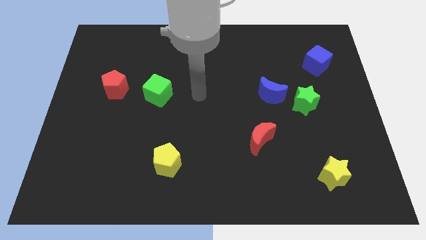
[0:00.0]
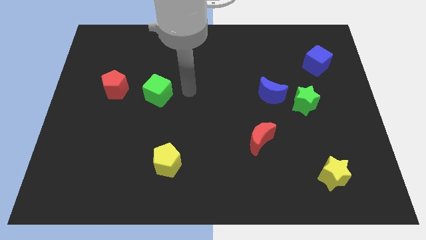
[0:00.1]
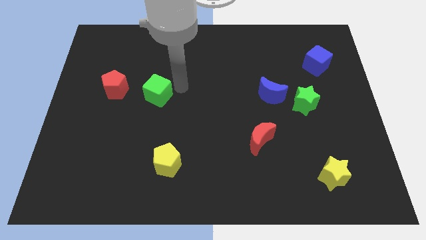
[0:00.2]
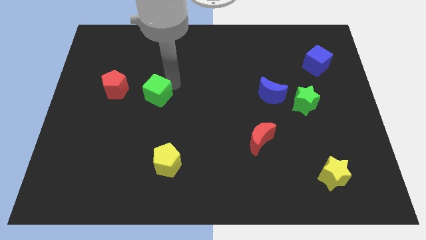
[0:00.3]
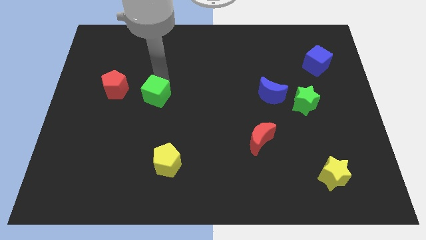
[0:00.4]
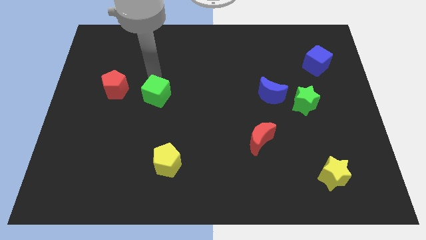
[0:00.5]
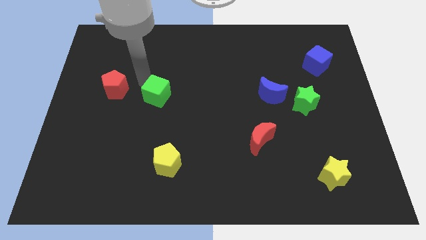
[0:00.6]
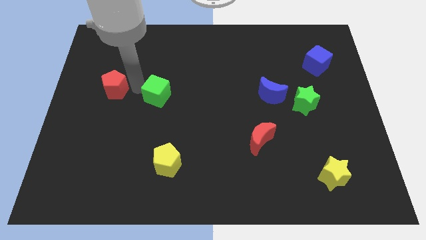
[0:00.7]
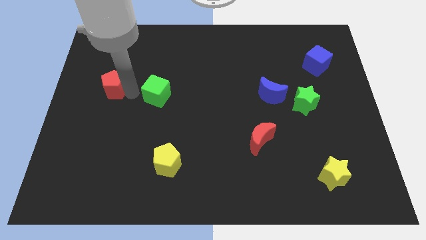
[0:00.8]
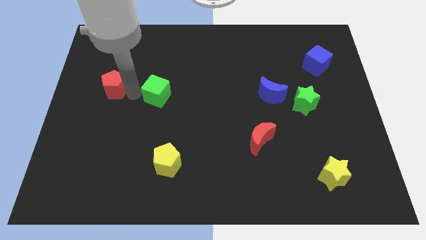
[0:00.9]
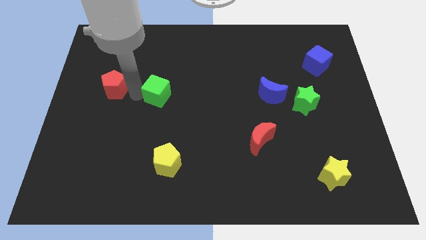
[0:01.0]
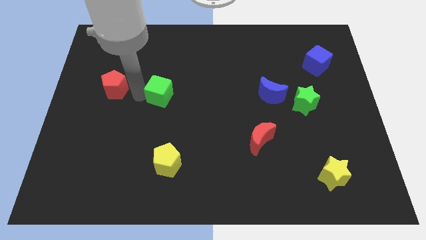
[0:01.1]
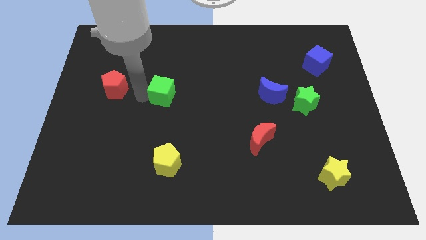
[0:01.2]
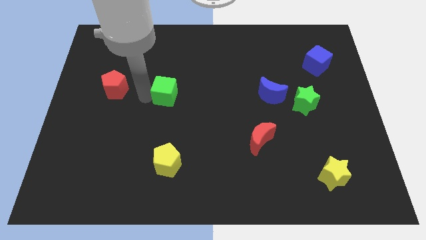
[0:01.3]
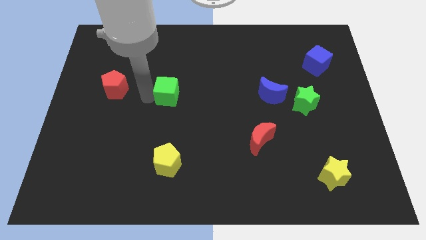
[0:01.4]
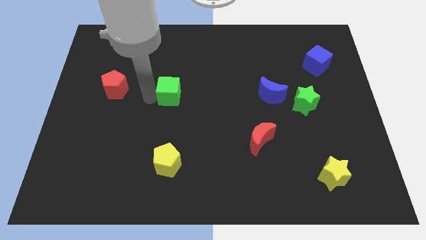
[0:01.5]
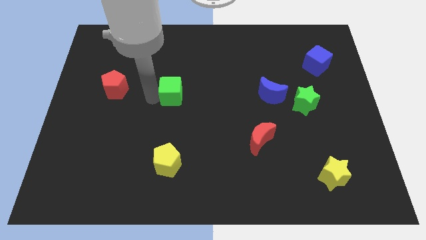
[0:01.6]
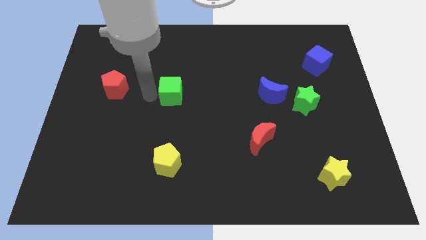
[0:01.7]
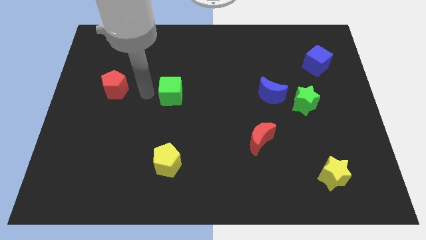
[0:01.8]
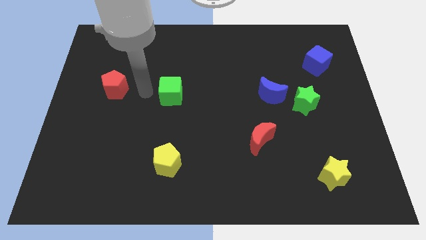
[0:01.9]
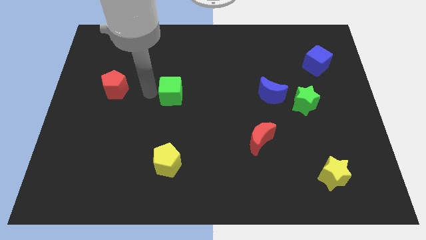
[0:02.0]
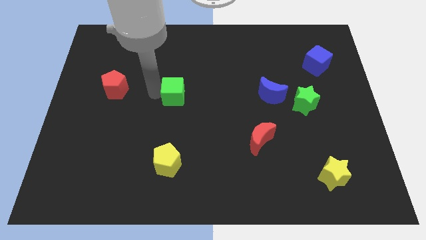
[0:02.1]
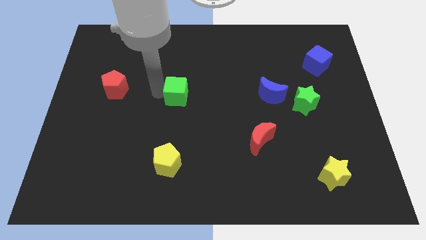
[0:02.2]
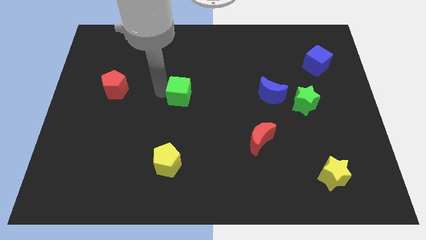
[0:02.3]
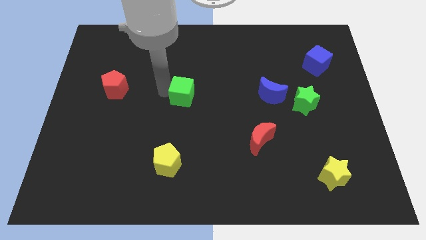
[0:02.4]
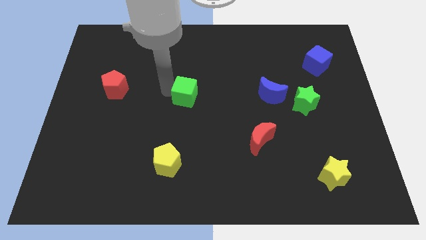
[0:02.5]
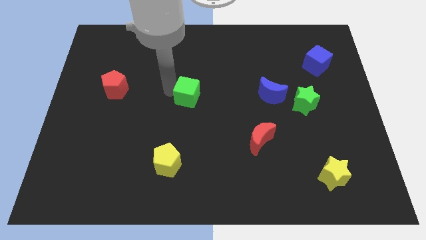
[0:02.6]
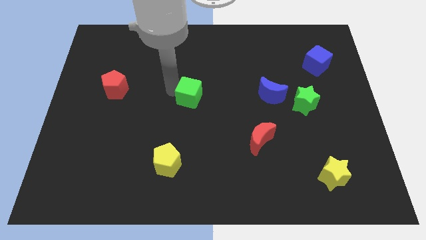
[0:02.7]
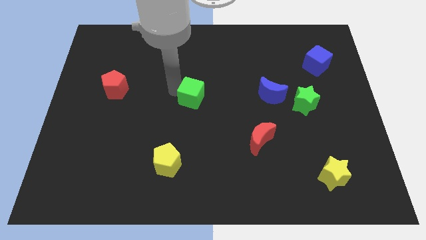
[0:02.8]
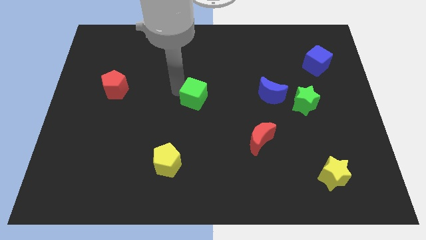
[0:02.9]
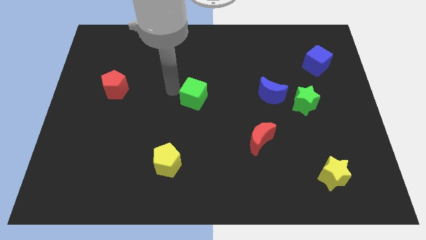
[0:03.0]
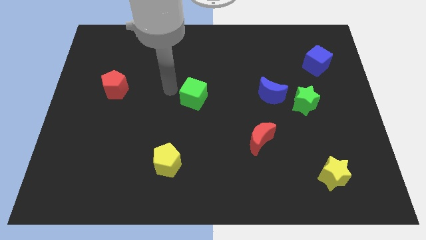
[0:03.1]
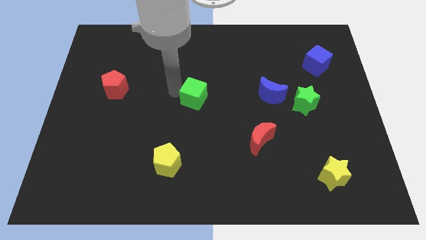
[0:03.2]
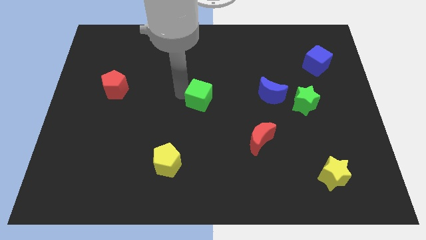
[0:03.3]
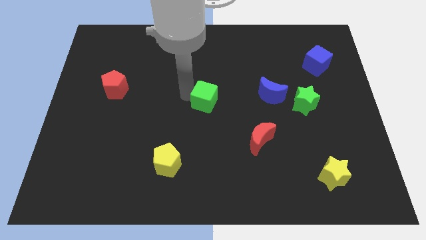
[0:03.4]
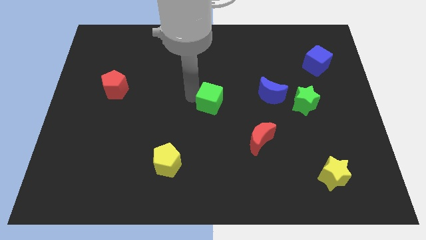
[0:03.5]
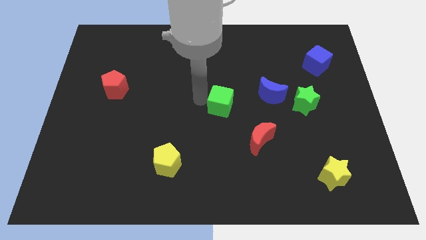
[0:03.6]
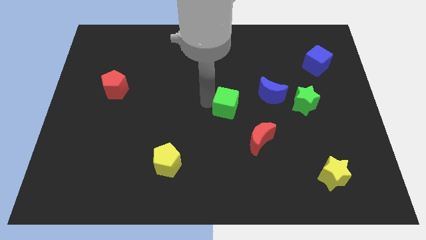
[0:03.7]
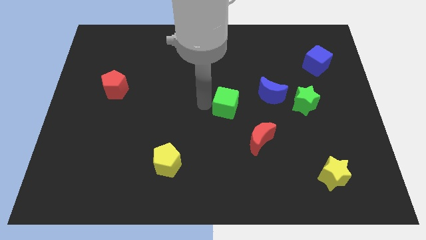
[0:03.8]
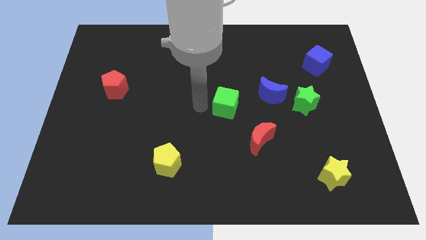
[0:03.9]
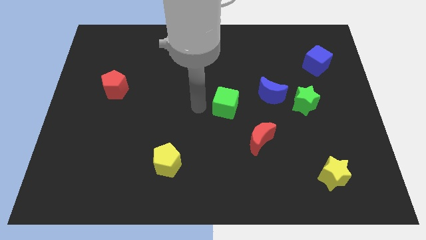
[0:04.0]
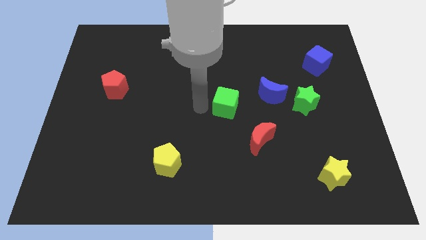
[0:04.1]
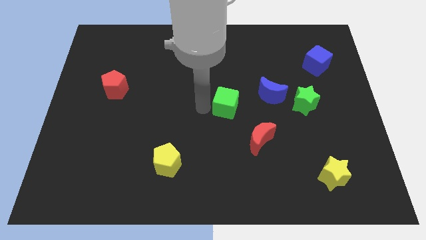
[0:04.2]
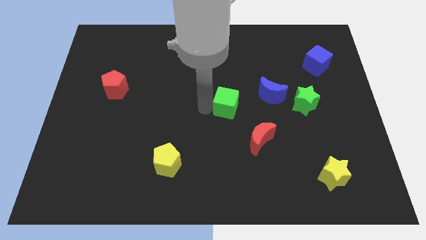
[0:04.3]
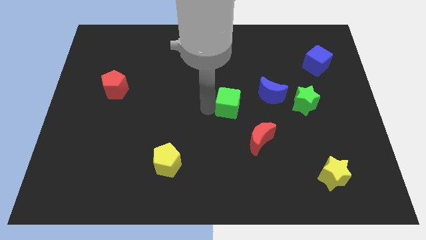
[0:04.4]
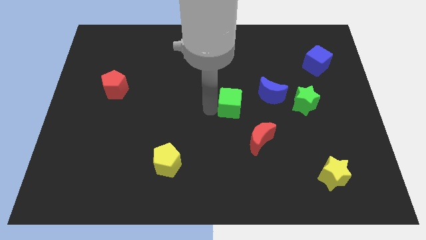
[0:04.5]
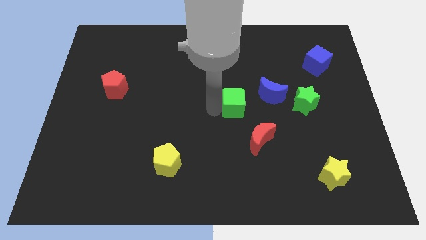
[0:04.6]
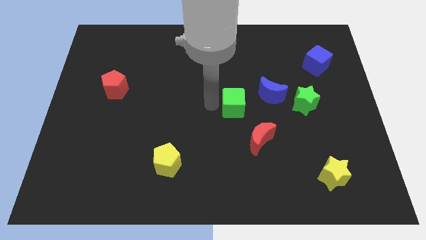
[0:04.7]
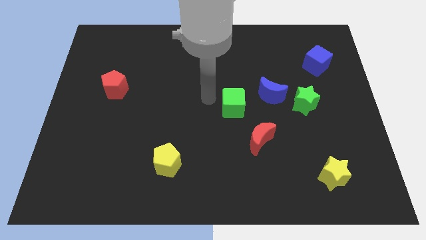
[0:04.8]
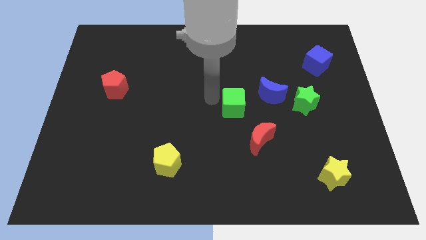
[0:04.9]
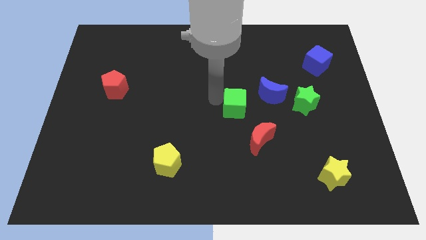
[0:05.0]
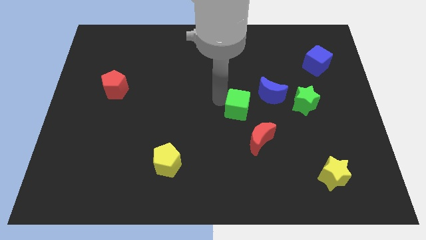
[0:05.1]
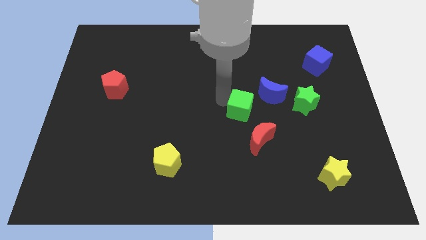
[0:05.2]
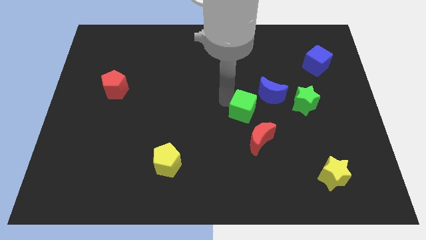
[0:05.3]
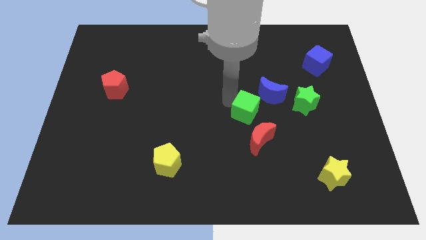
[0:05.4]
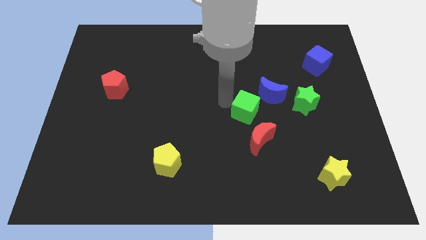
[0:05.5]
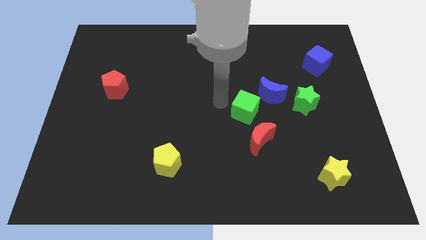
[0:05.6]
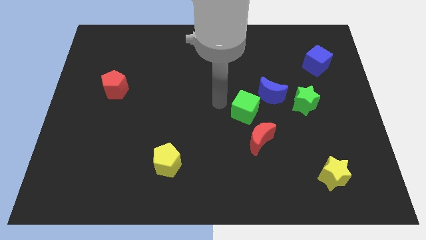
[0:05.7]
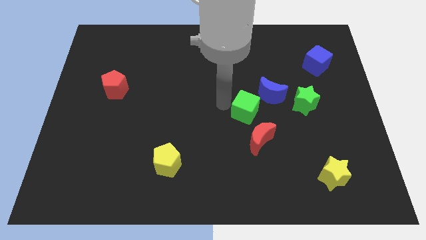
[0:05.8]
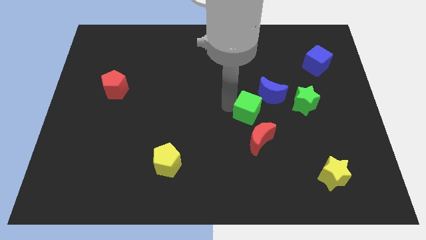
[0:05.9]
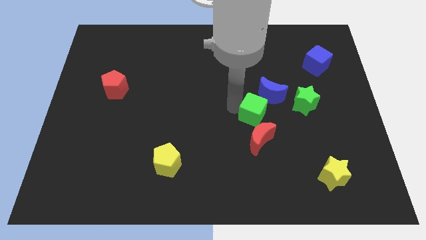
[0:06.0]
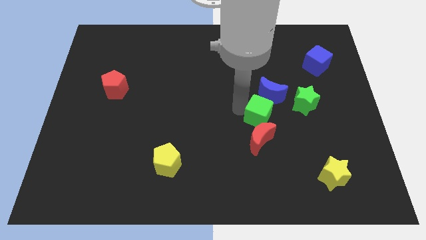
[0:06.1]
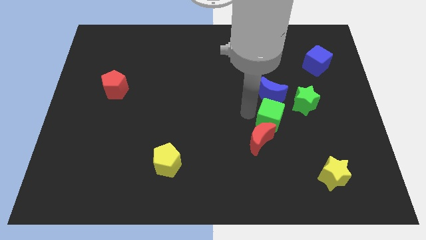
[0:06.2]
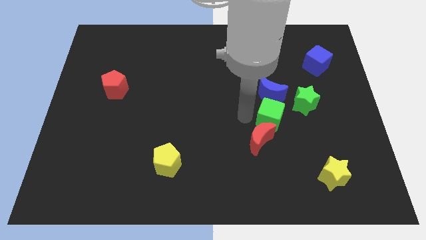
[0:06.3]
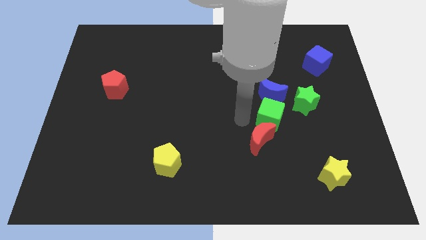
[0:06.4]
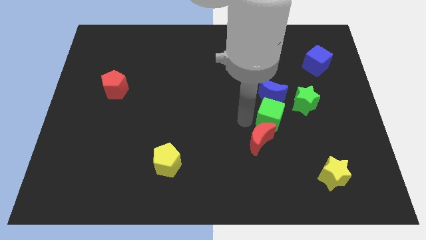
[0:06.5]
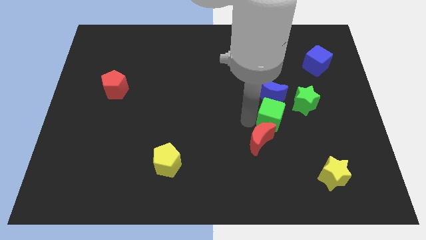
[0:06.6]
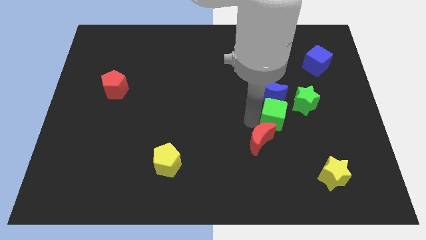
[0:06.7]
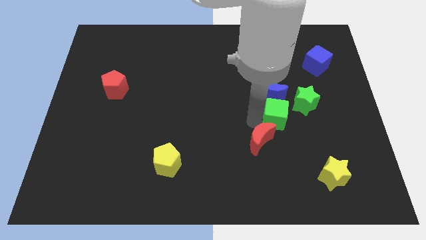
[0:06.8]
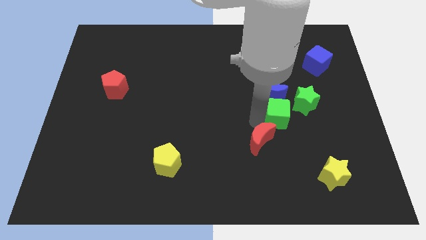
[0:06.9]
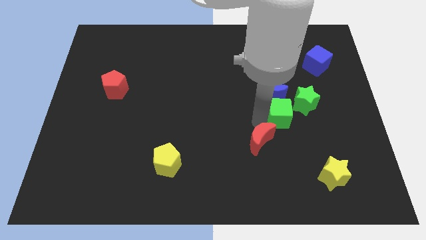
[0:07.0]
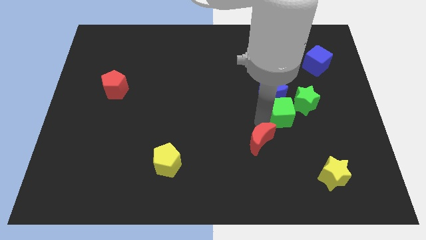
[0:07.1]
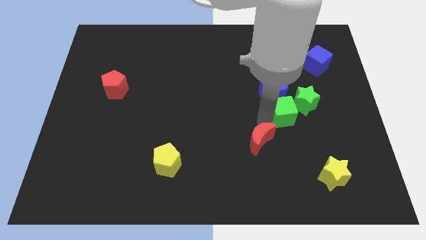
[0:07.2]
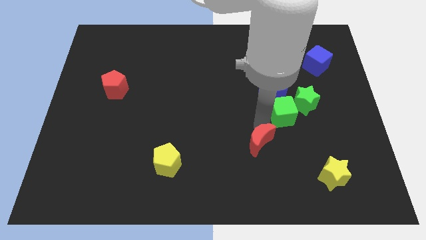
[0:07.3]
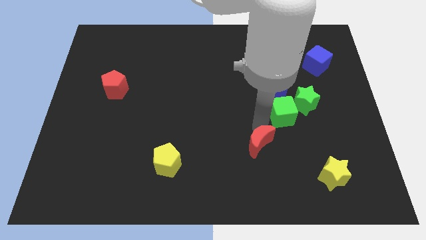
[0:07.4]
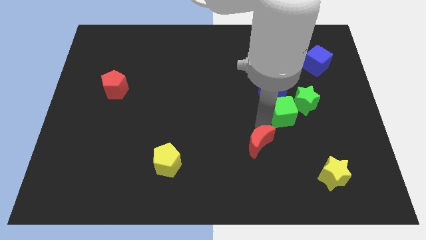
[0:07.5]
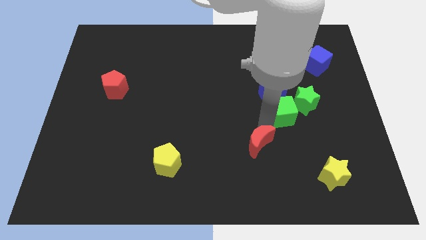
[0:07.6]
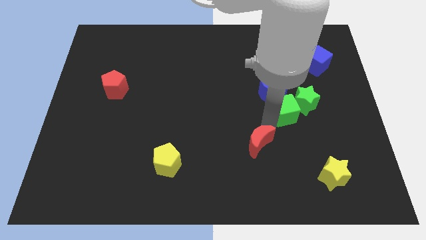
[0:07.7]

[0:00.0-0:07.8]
put the green cube close to the green star
